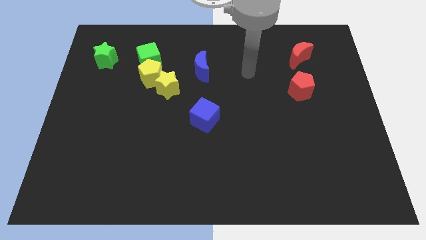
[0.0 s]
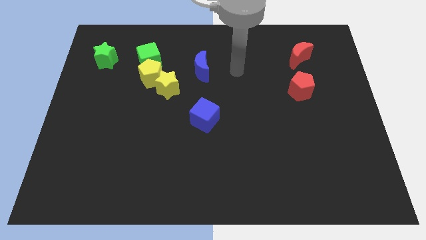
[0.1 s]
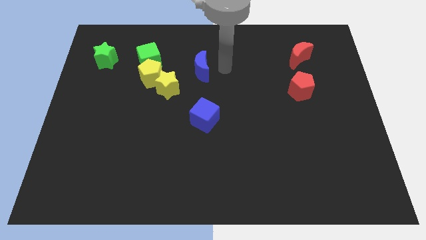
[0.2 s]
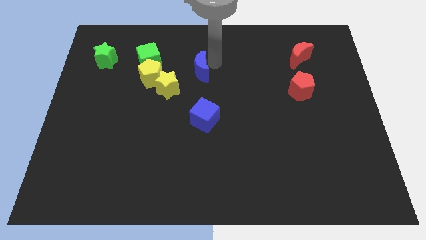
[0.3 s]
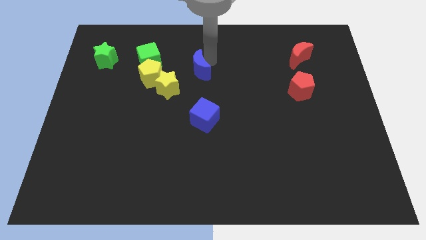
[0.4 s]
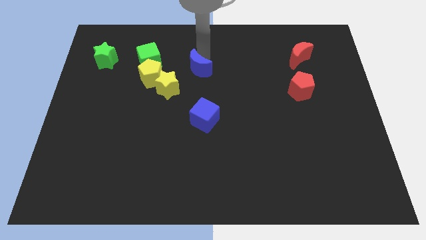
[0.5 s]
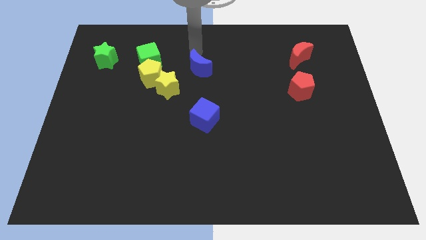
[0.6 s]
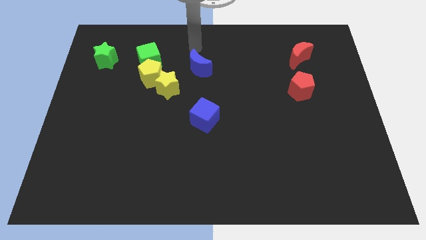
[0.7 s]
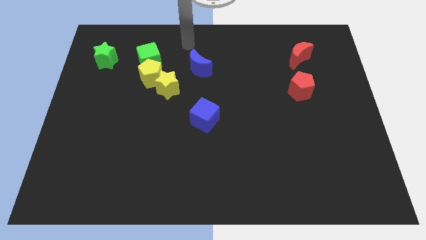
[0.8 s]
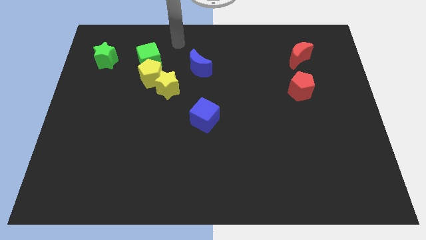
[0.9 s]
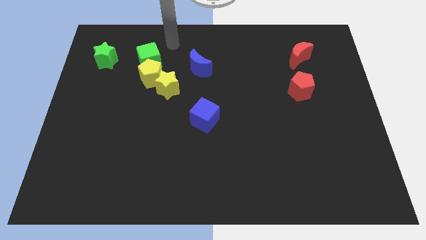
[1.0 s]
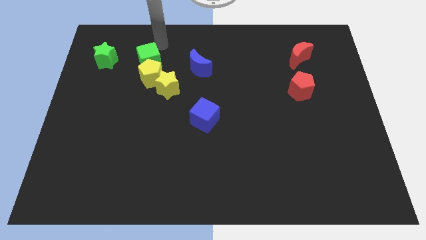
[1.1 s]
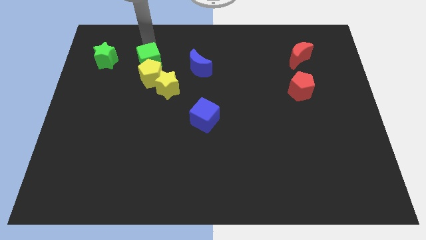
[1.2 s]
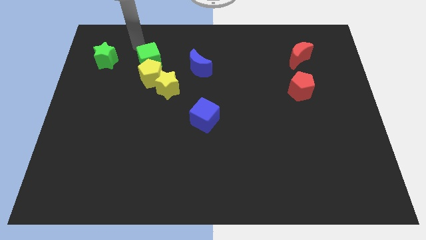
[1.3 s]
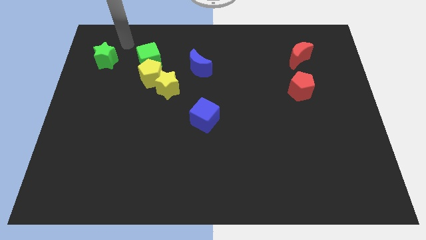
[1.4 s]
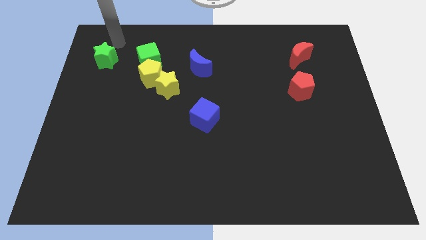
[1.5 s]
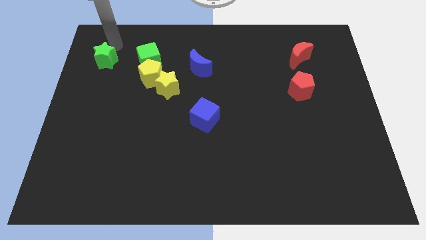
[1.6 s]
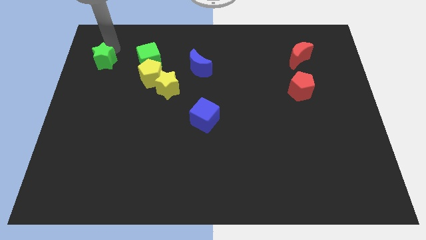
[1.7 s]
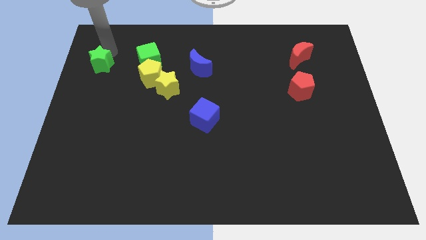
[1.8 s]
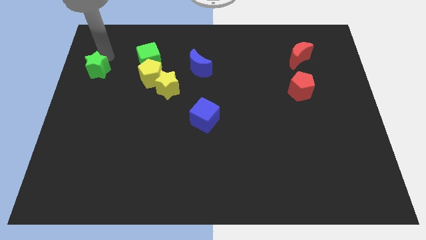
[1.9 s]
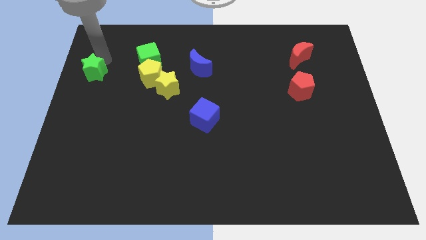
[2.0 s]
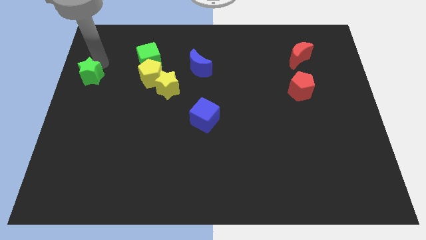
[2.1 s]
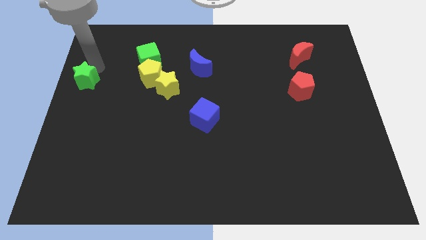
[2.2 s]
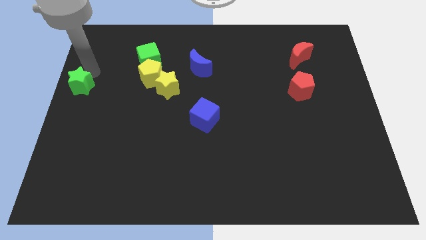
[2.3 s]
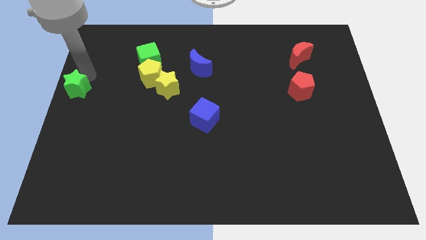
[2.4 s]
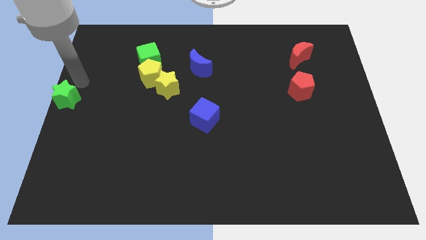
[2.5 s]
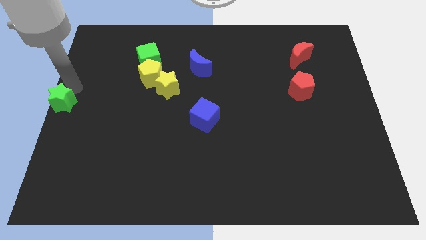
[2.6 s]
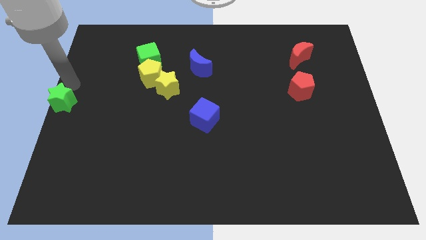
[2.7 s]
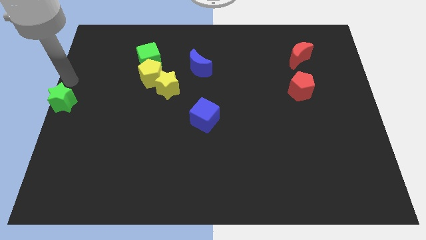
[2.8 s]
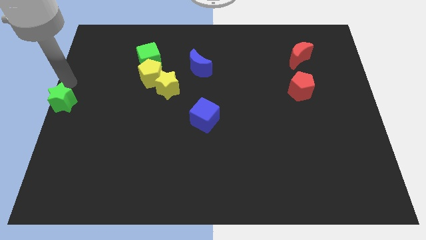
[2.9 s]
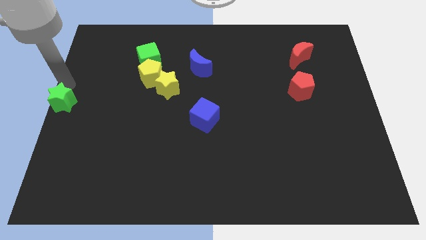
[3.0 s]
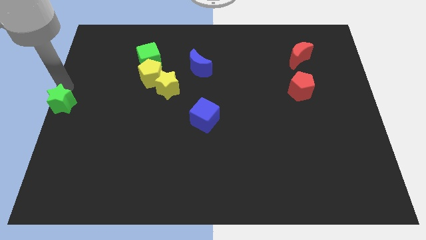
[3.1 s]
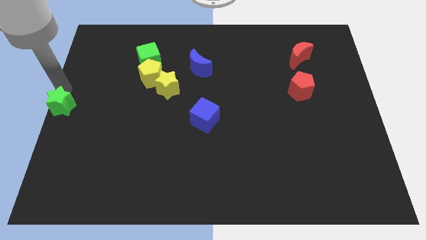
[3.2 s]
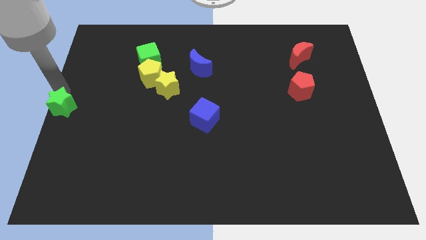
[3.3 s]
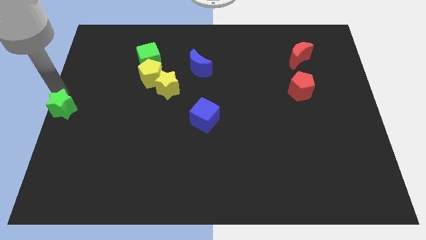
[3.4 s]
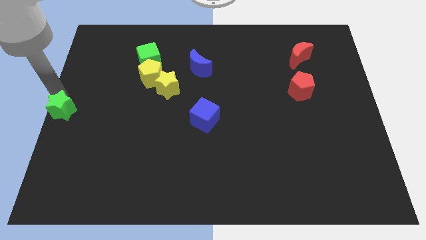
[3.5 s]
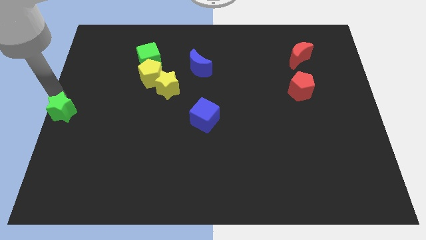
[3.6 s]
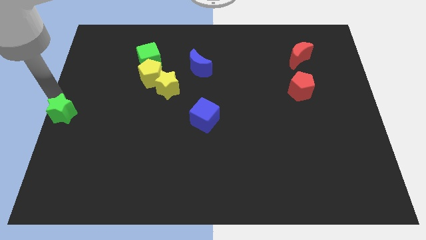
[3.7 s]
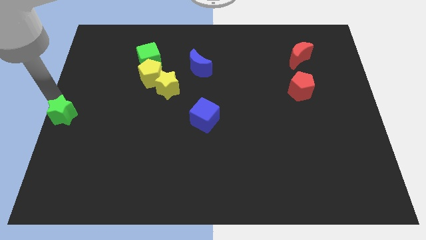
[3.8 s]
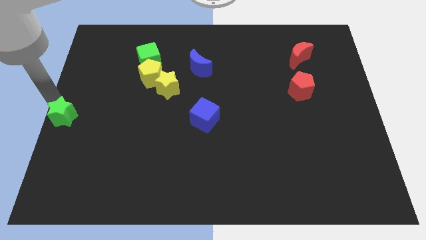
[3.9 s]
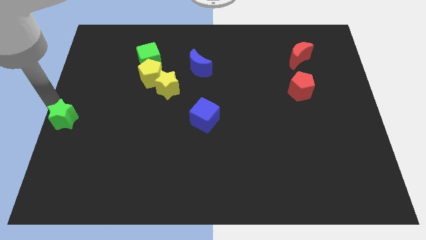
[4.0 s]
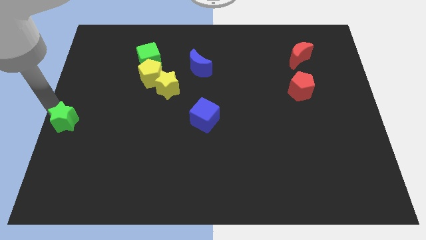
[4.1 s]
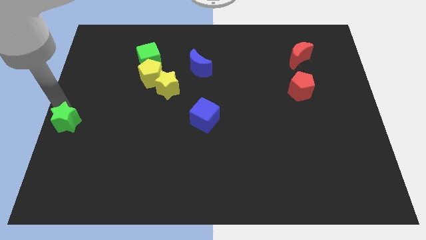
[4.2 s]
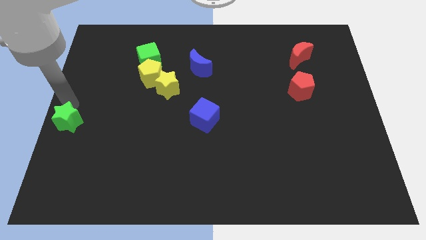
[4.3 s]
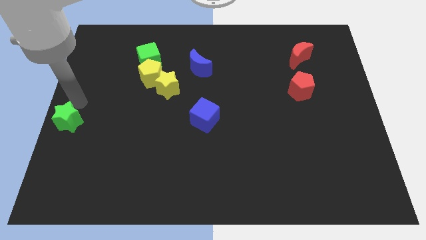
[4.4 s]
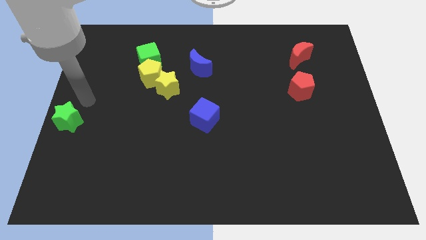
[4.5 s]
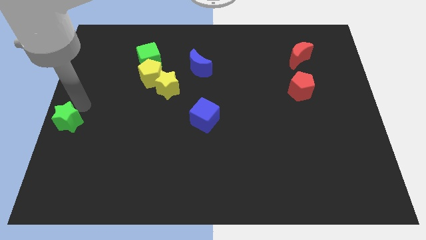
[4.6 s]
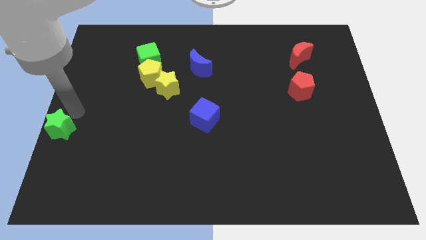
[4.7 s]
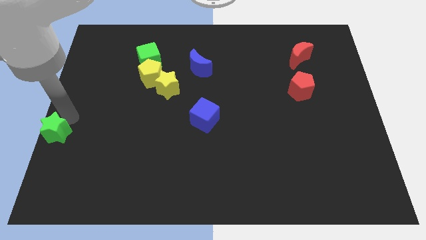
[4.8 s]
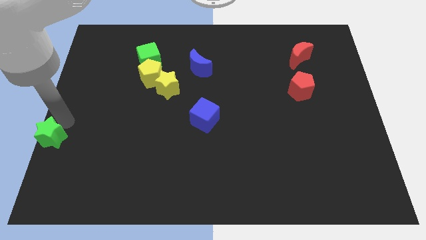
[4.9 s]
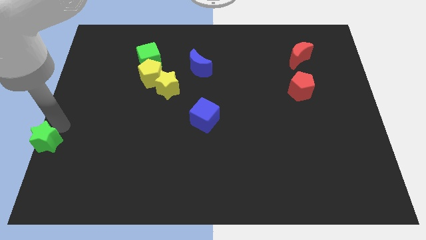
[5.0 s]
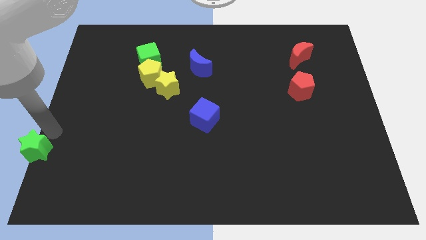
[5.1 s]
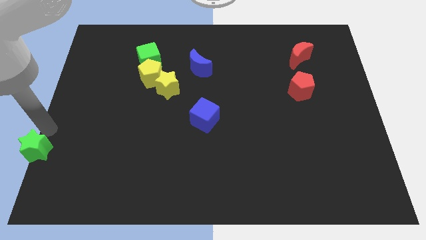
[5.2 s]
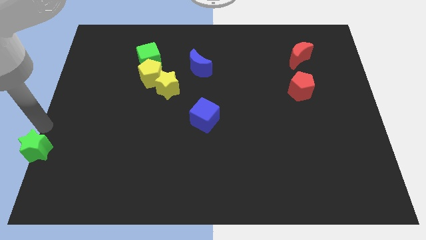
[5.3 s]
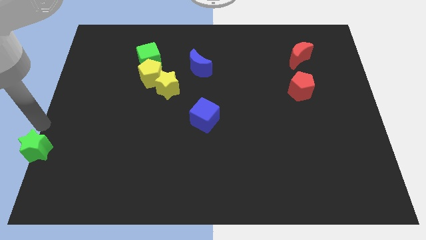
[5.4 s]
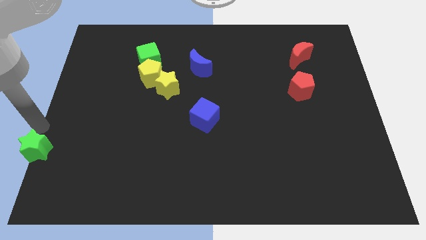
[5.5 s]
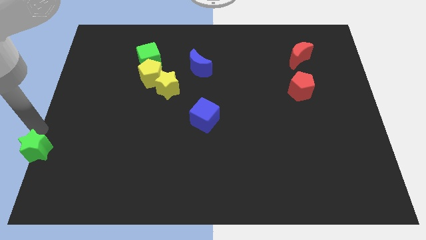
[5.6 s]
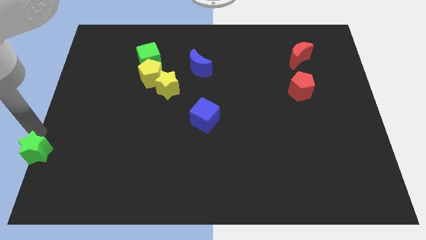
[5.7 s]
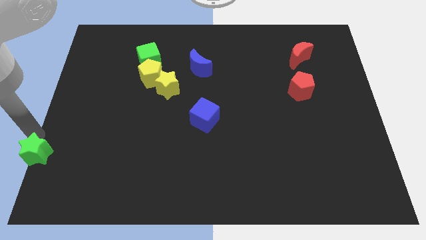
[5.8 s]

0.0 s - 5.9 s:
put the green star to the lower left corner
